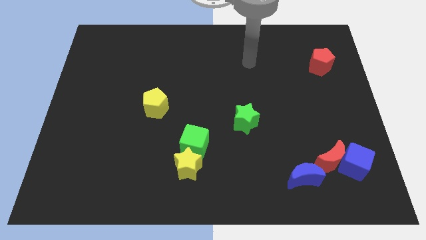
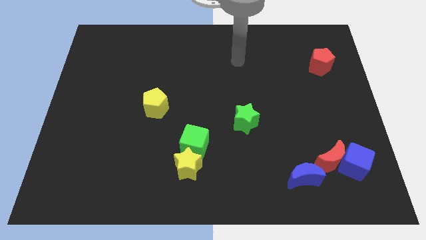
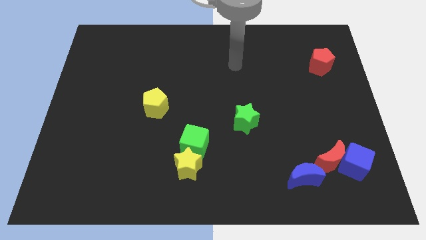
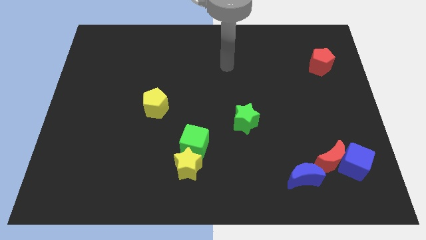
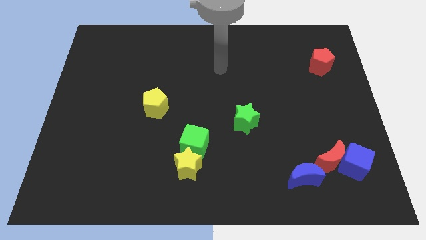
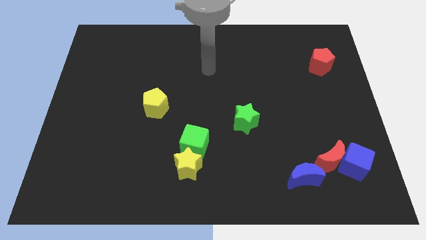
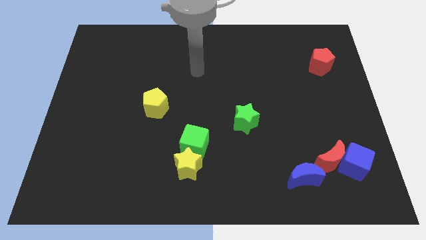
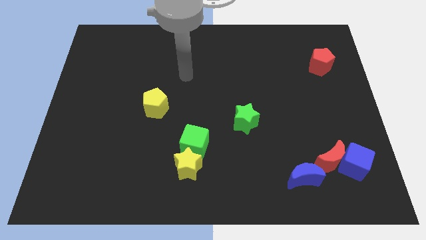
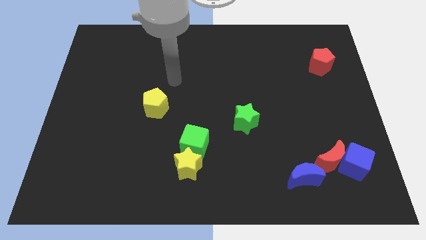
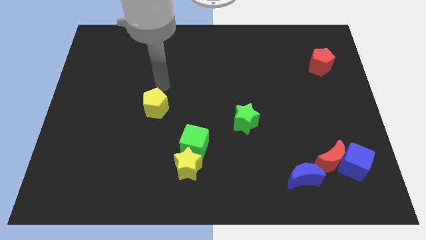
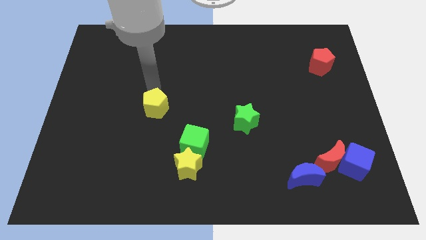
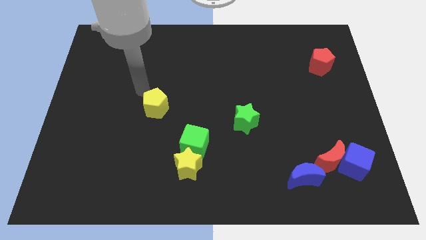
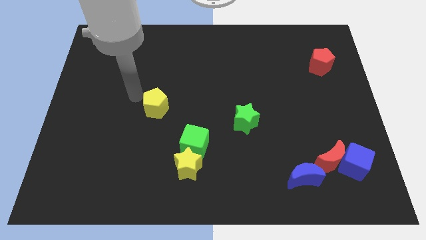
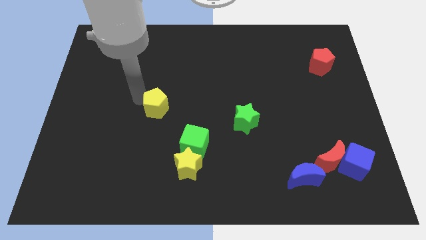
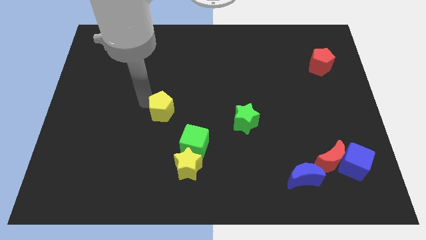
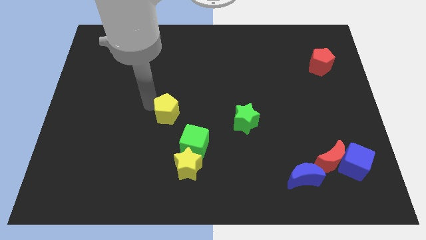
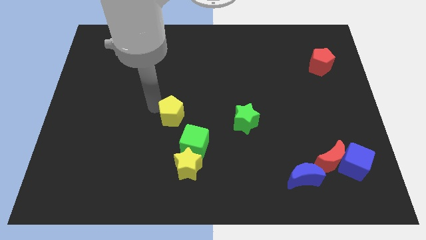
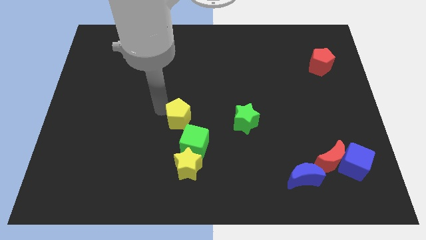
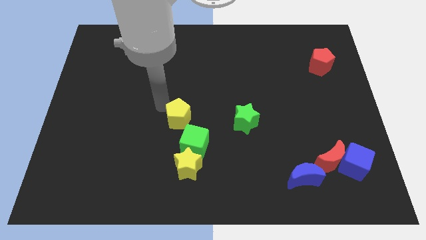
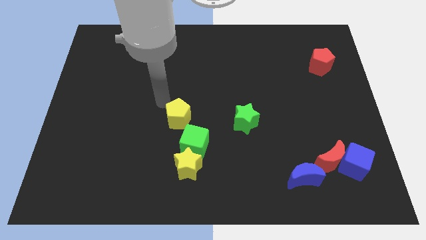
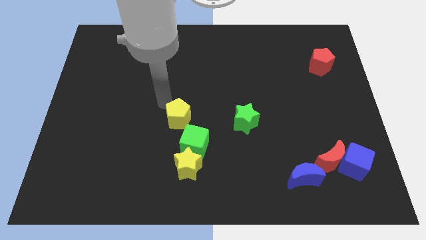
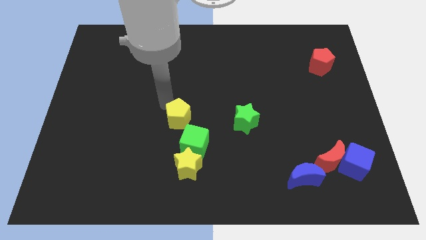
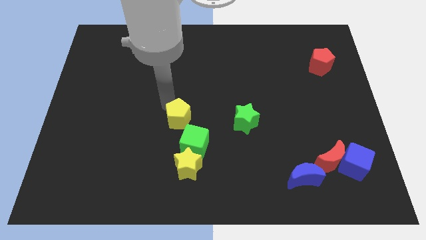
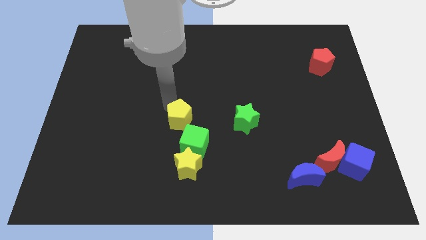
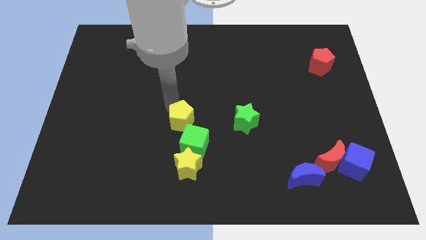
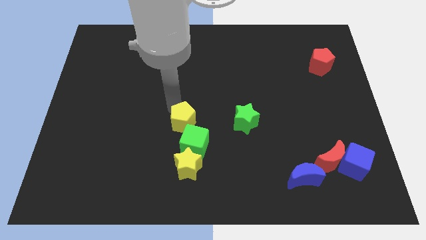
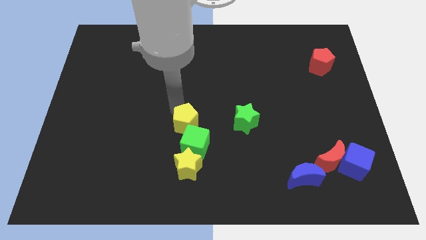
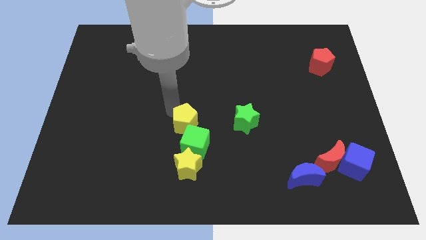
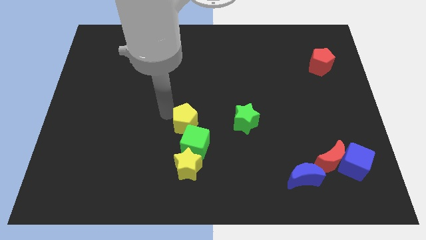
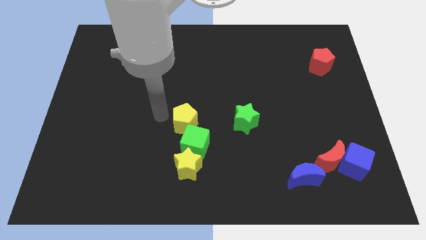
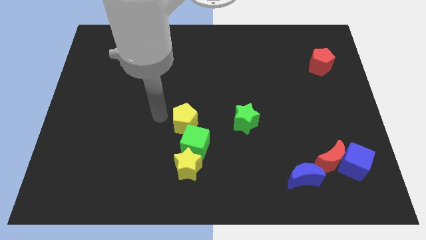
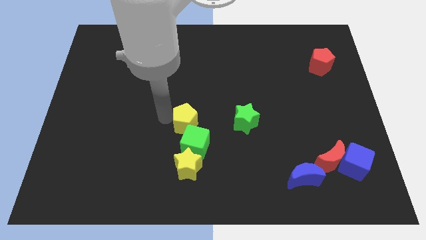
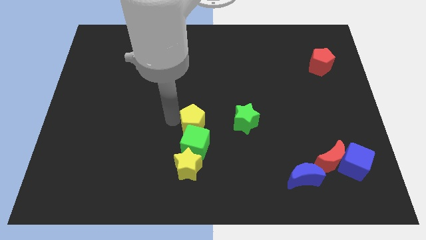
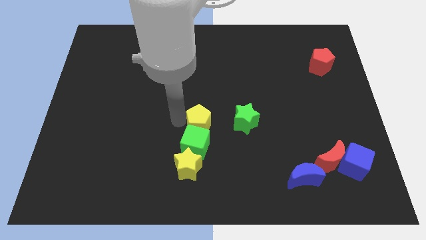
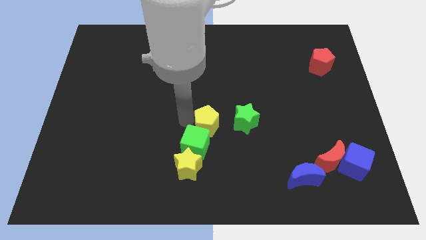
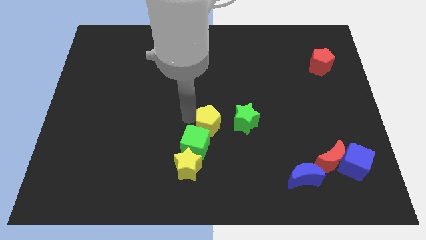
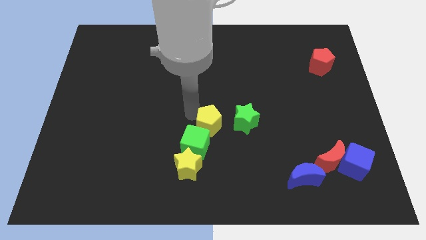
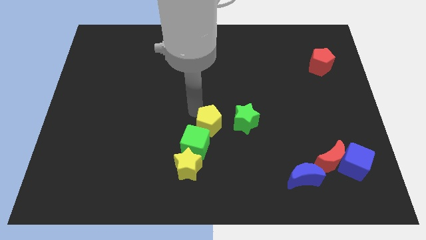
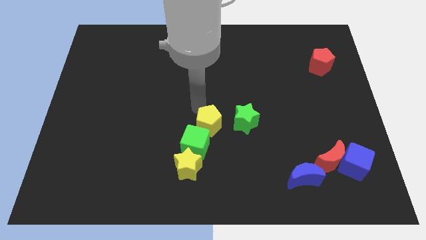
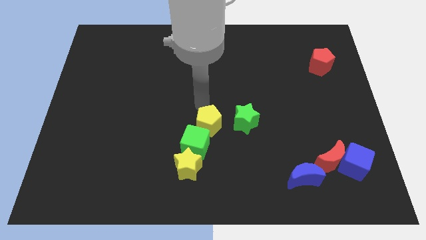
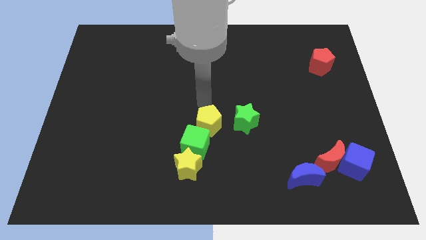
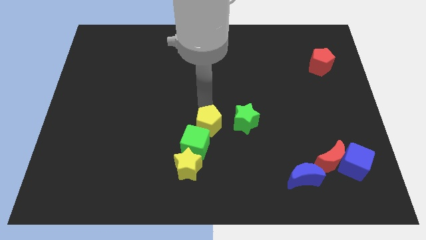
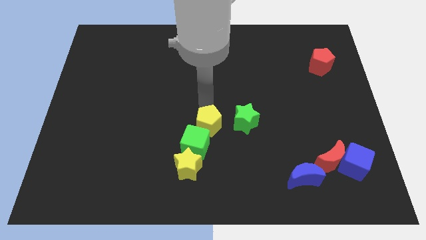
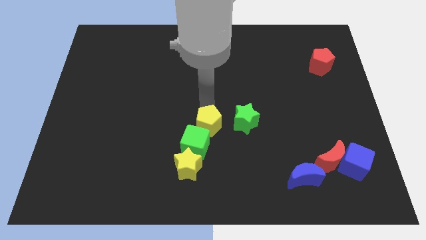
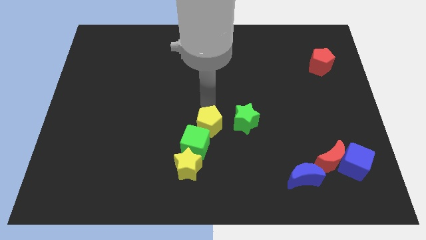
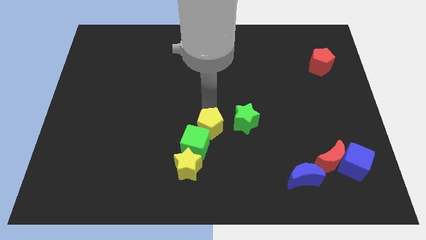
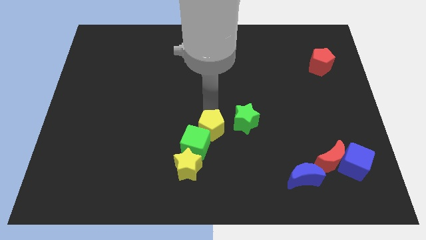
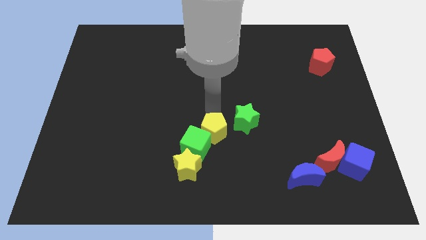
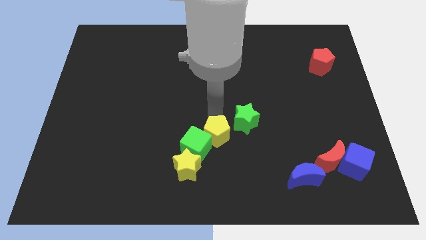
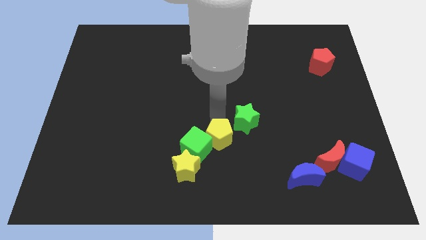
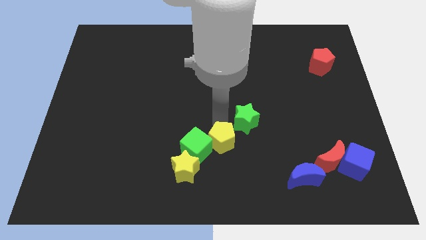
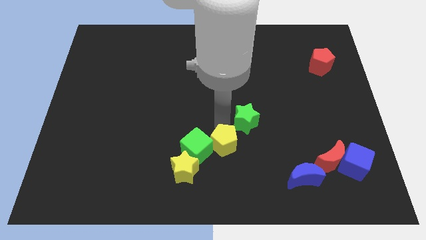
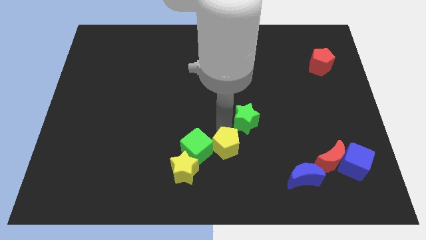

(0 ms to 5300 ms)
slide the yellow pentagon diagonally down and to the right of the green cube

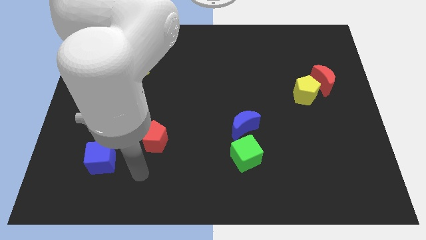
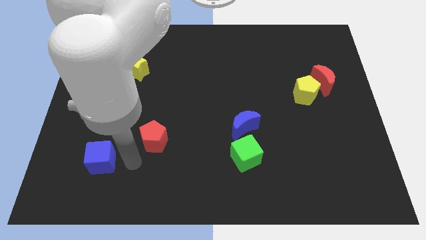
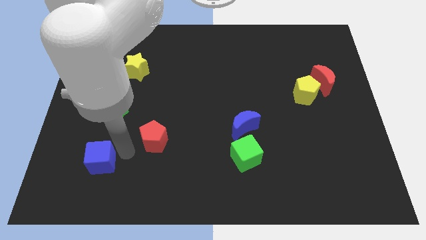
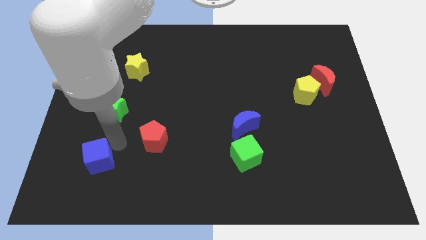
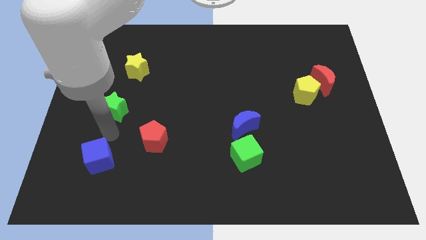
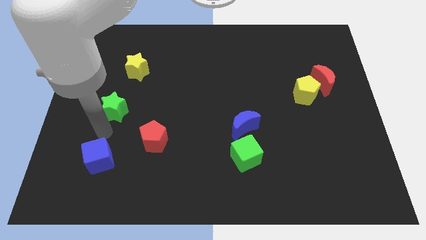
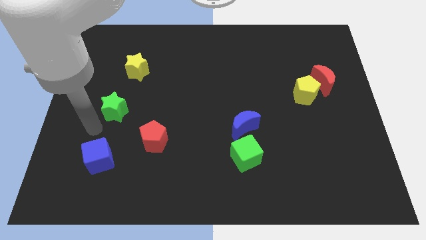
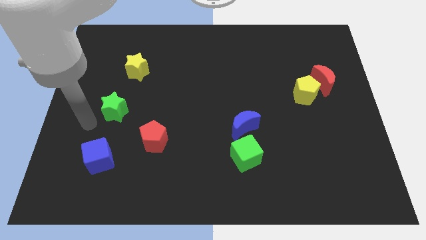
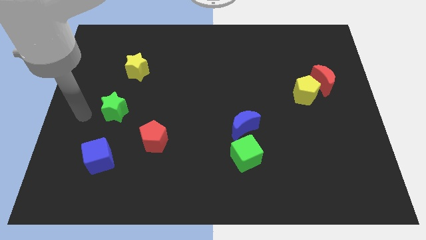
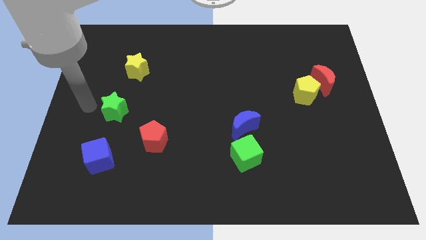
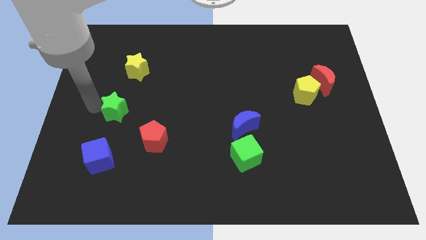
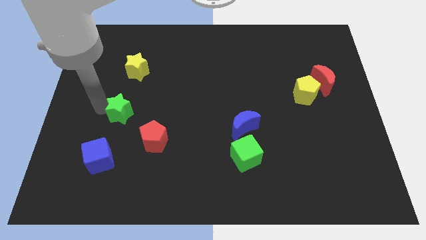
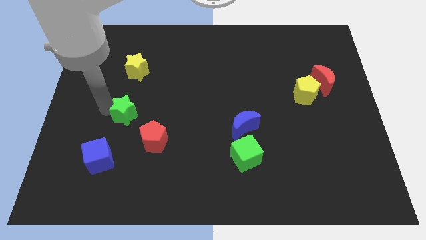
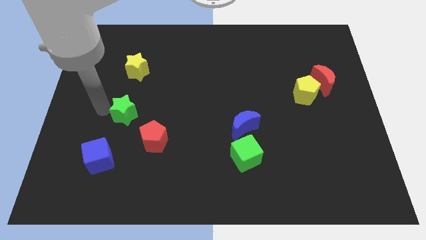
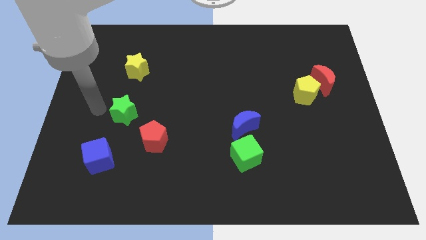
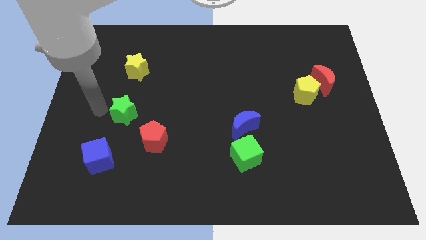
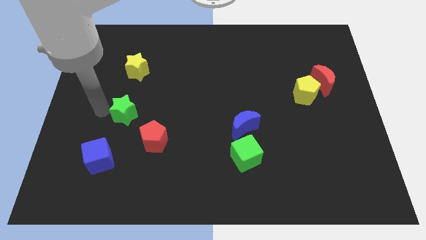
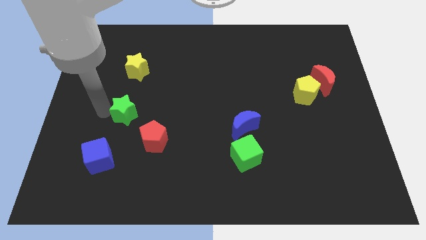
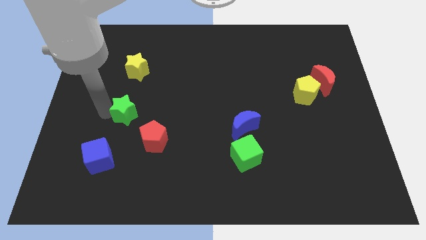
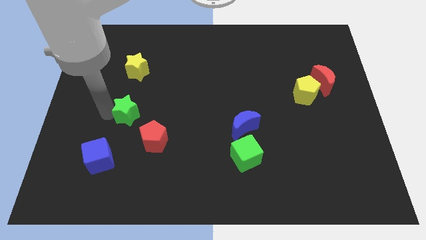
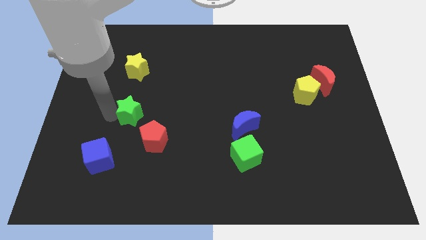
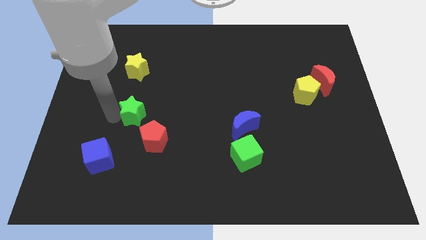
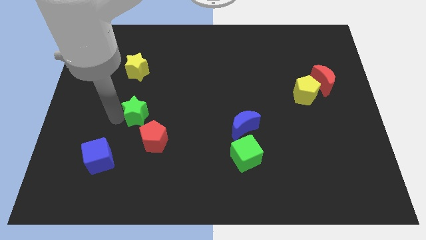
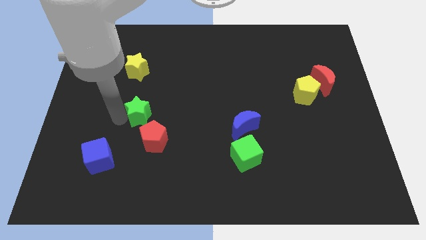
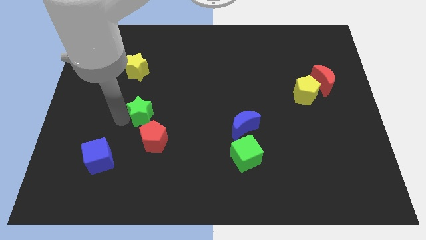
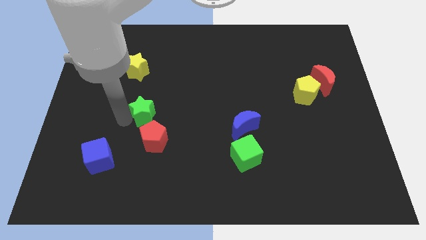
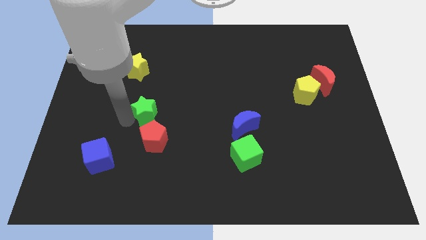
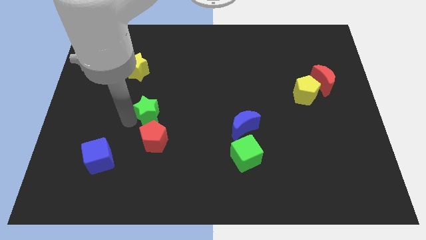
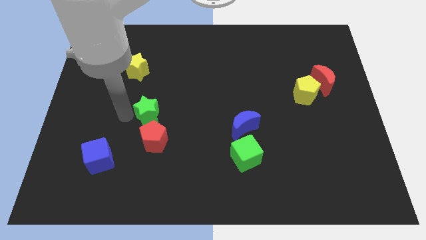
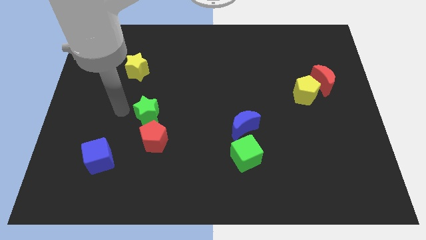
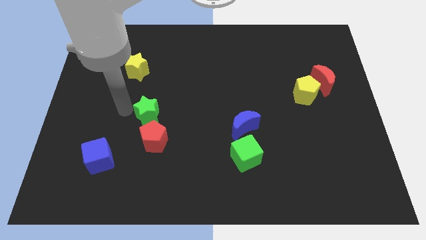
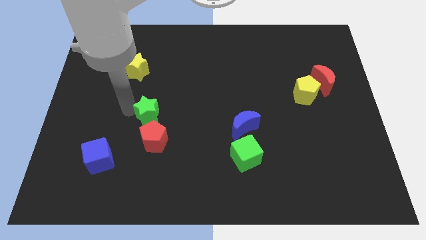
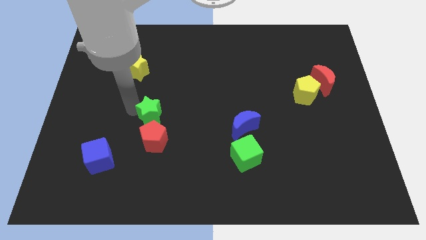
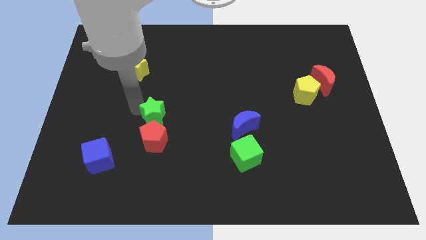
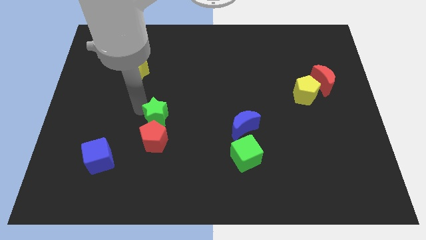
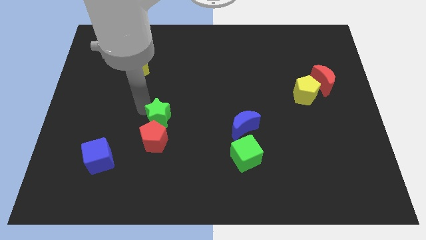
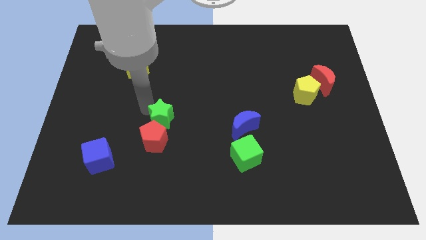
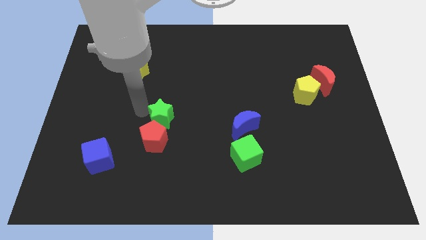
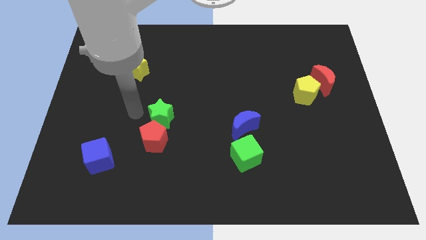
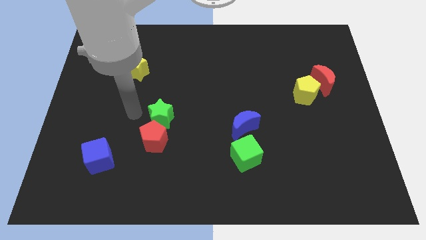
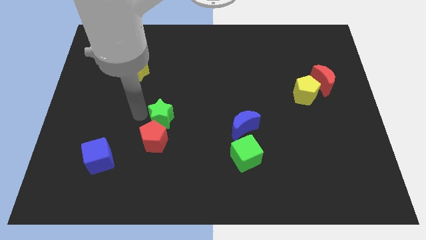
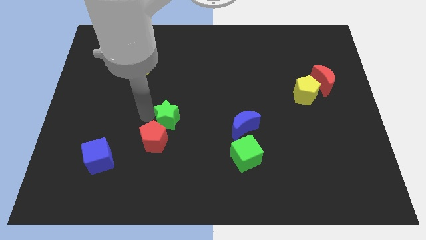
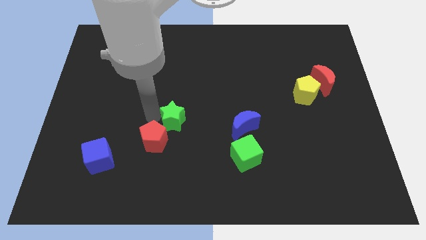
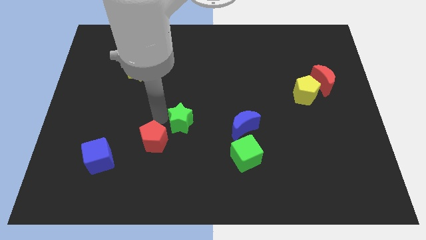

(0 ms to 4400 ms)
move the green star just left of the blue moon
